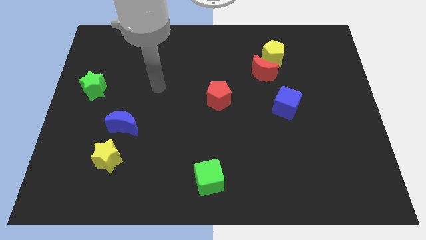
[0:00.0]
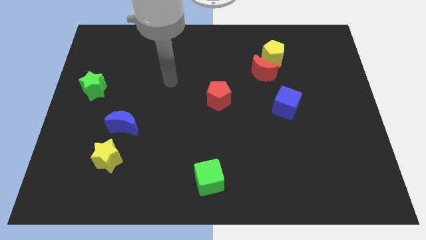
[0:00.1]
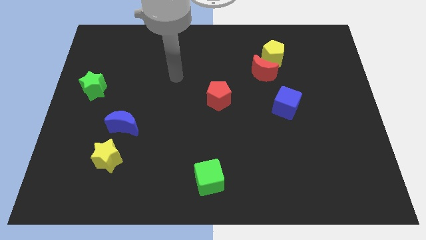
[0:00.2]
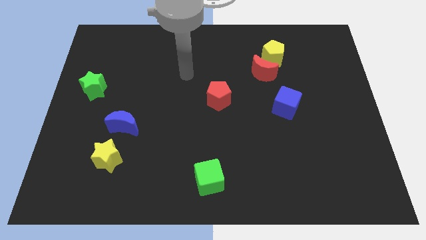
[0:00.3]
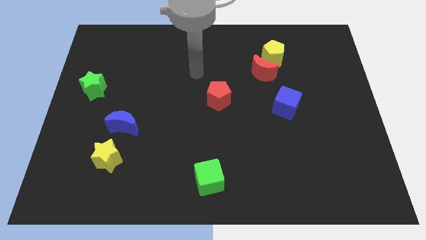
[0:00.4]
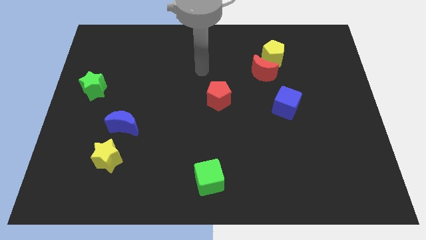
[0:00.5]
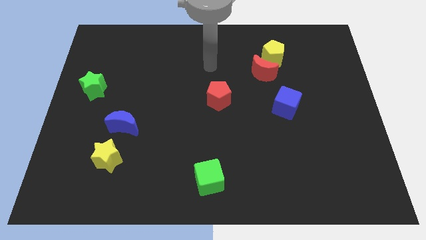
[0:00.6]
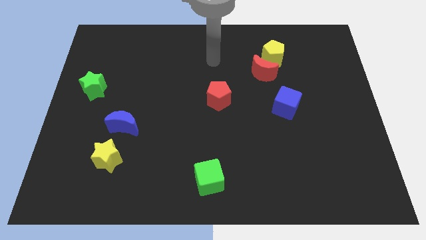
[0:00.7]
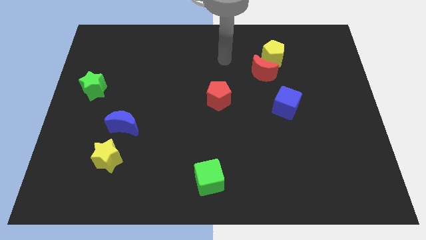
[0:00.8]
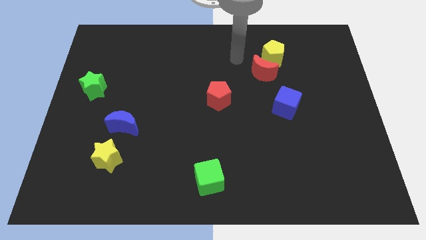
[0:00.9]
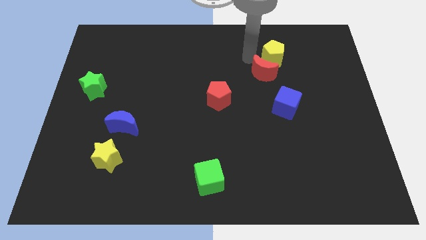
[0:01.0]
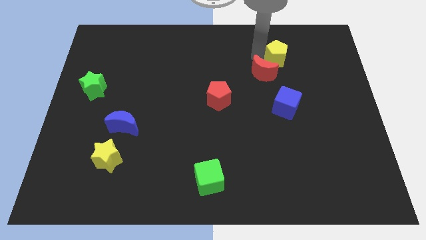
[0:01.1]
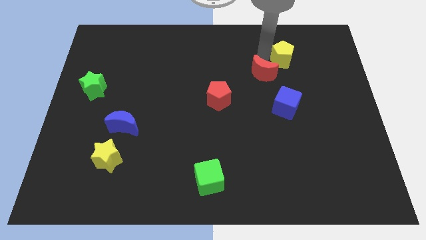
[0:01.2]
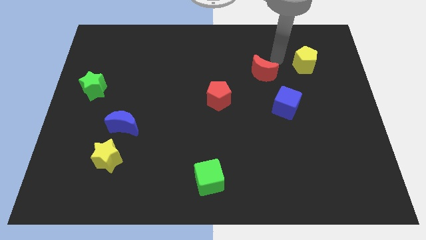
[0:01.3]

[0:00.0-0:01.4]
move the red moon away from the yellow pentagon

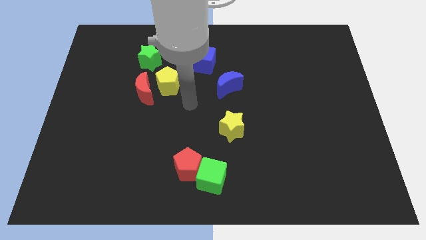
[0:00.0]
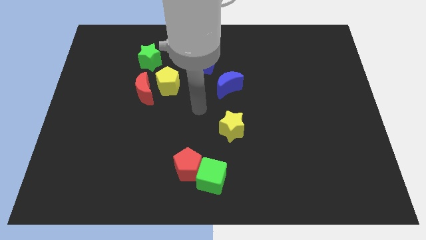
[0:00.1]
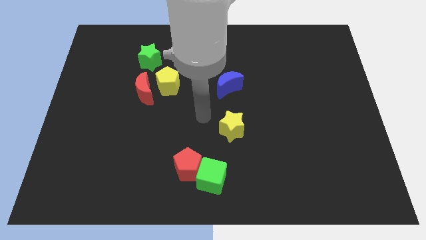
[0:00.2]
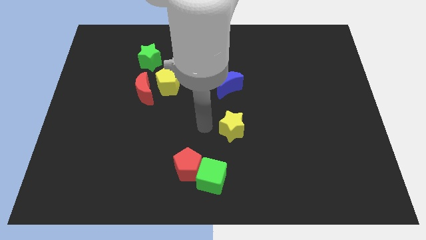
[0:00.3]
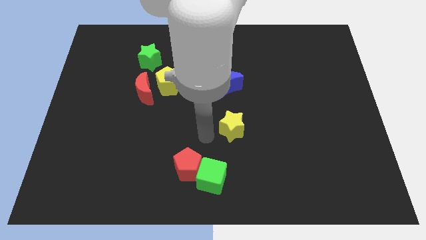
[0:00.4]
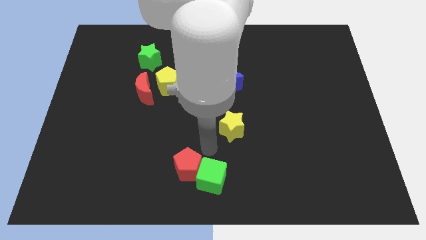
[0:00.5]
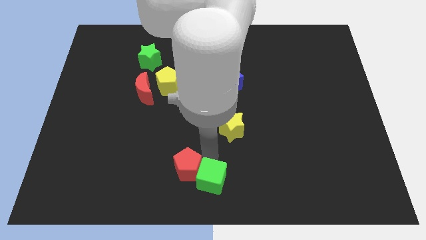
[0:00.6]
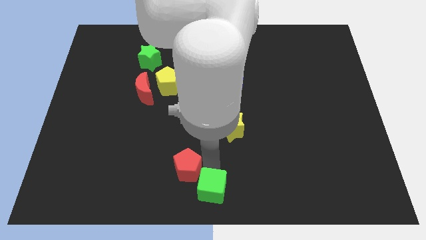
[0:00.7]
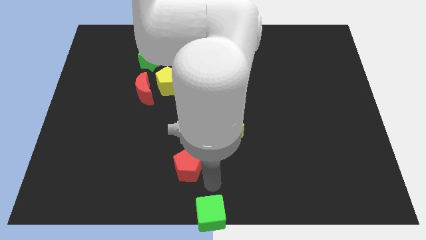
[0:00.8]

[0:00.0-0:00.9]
pull the red pentagon apart from the green cube

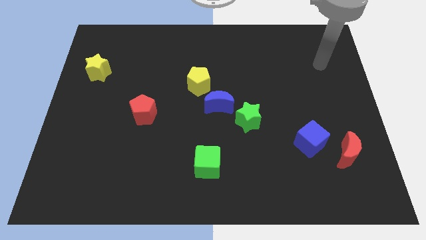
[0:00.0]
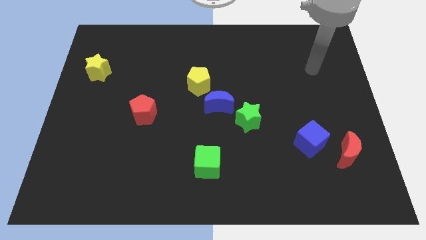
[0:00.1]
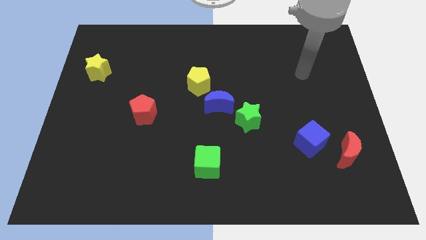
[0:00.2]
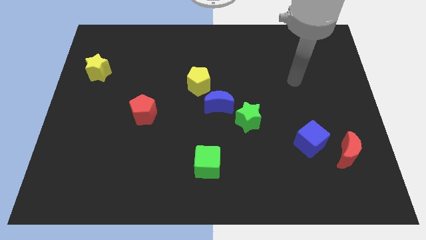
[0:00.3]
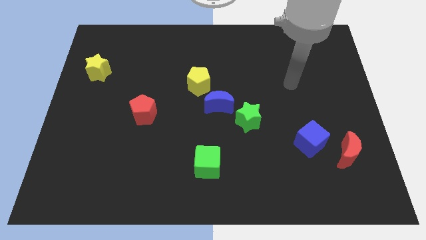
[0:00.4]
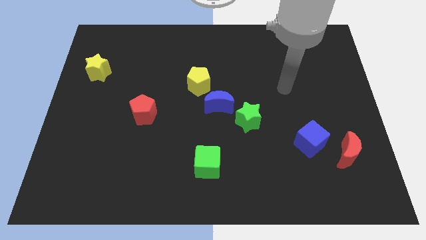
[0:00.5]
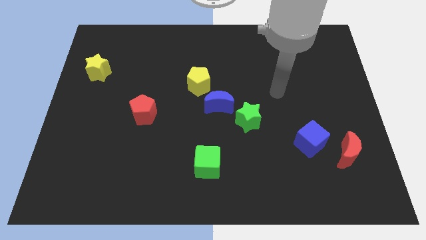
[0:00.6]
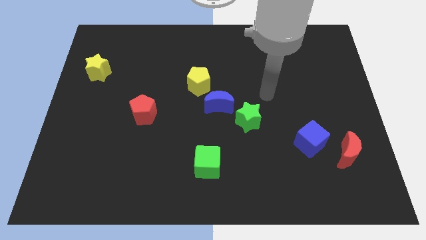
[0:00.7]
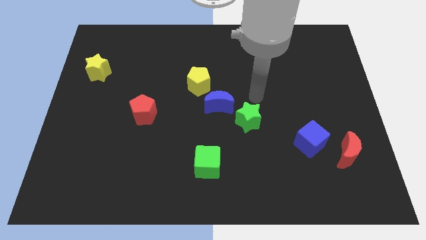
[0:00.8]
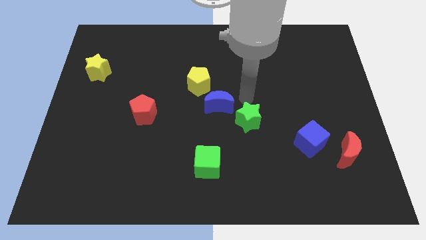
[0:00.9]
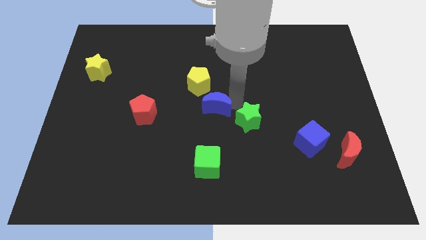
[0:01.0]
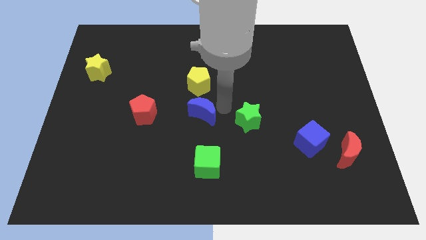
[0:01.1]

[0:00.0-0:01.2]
move the green star away from the blue moon

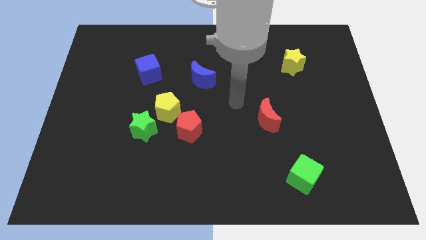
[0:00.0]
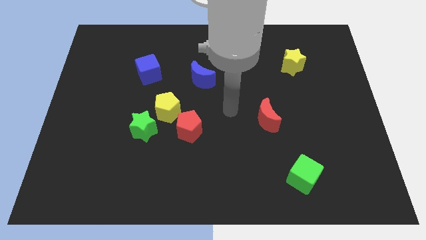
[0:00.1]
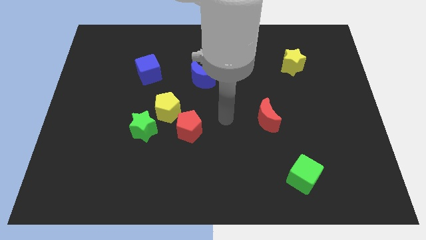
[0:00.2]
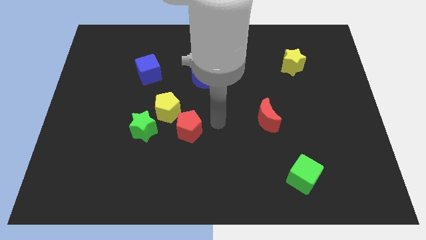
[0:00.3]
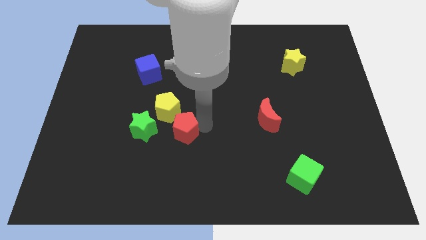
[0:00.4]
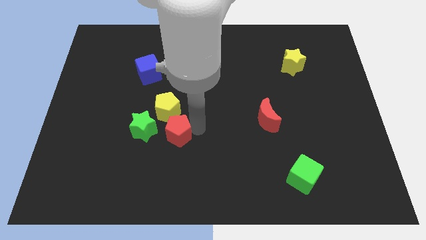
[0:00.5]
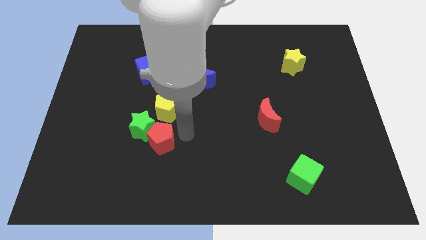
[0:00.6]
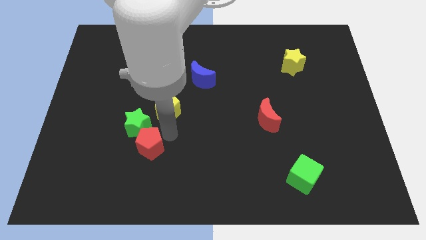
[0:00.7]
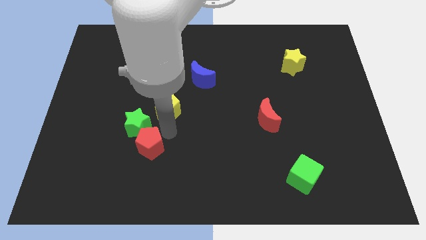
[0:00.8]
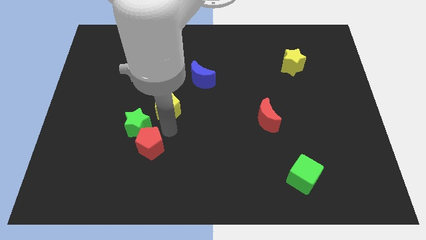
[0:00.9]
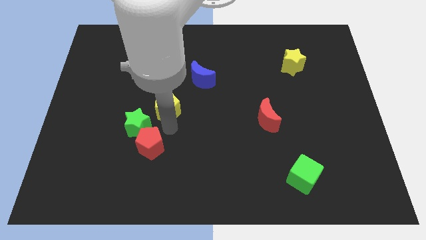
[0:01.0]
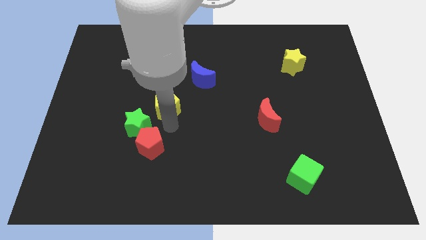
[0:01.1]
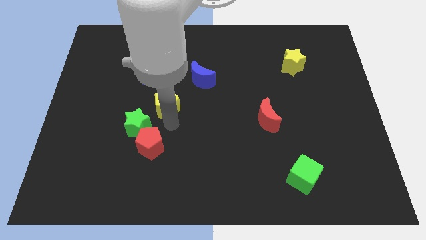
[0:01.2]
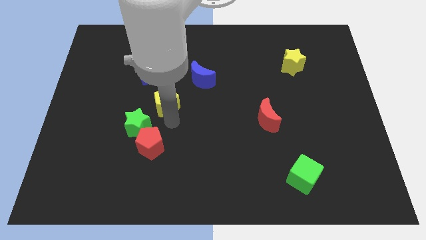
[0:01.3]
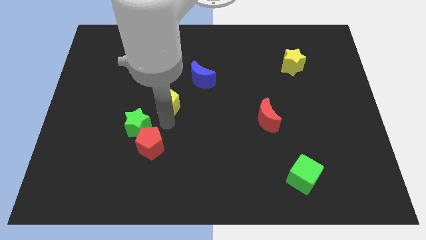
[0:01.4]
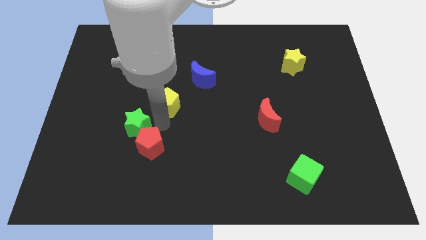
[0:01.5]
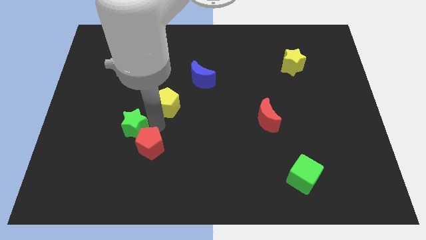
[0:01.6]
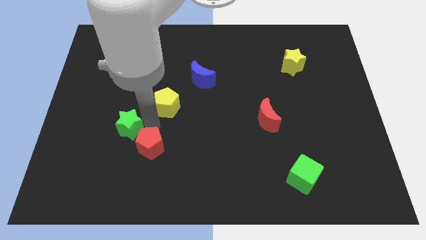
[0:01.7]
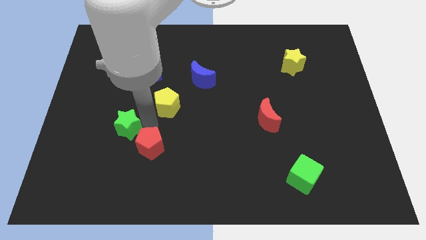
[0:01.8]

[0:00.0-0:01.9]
pull the yellow pentagon apart from the green star and red pentagon

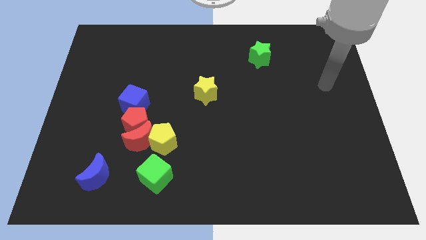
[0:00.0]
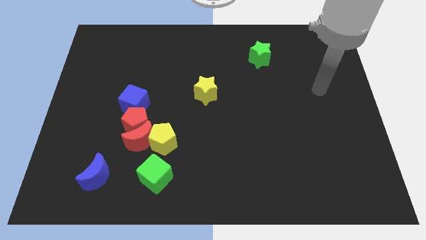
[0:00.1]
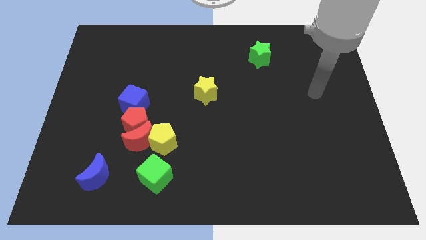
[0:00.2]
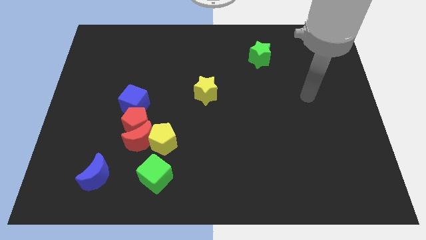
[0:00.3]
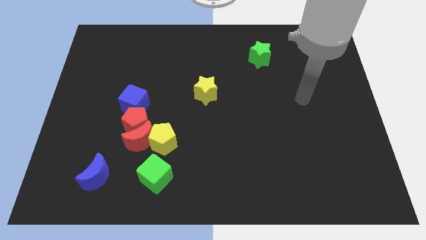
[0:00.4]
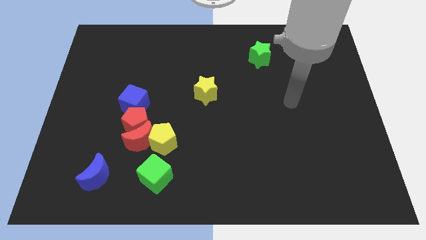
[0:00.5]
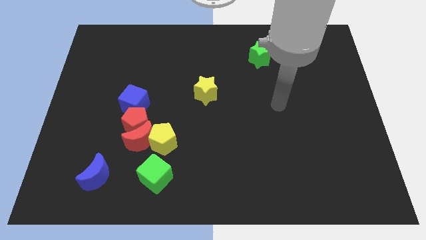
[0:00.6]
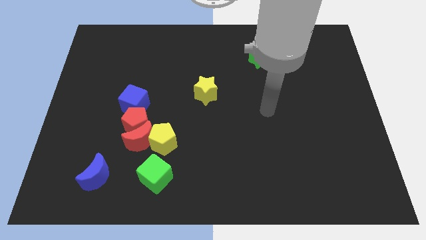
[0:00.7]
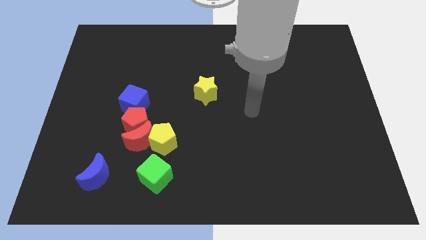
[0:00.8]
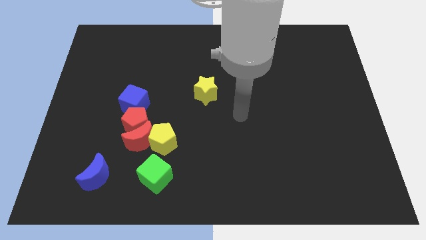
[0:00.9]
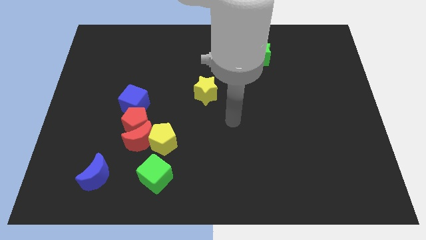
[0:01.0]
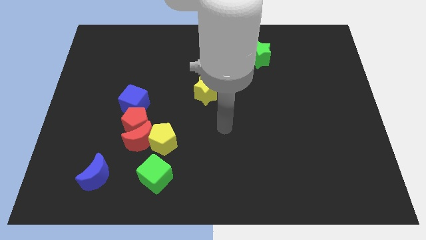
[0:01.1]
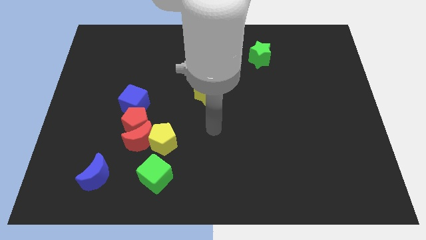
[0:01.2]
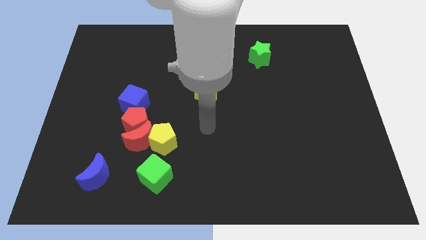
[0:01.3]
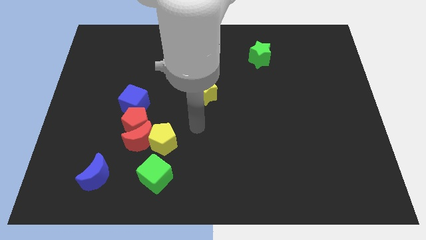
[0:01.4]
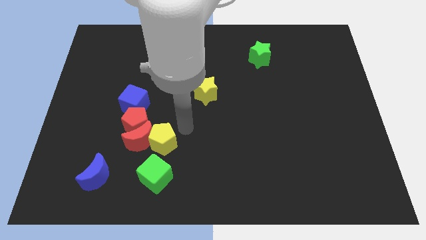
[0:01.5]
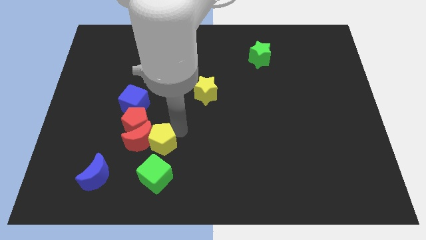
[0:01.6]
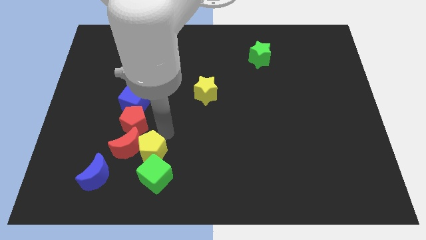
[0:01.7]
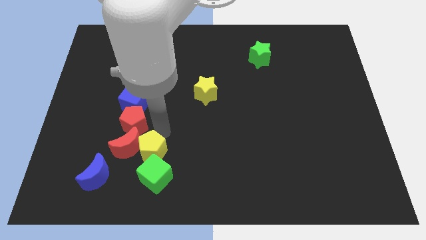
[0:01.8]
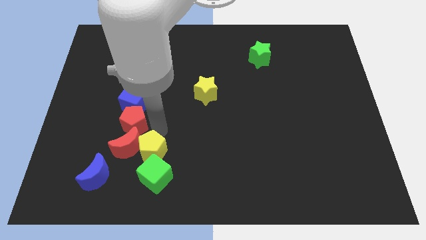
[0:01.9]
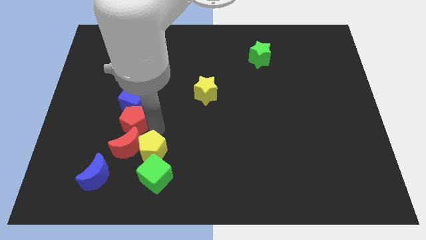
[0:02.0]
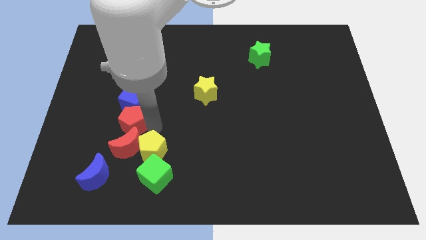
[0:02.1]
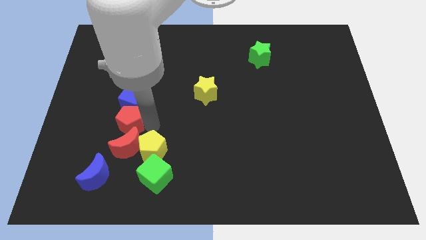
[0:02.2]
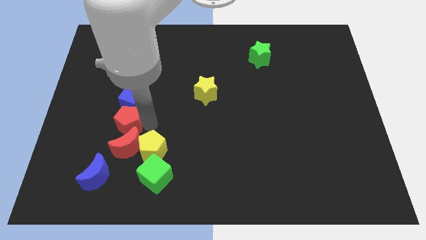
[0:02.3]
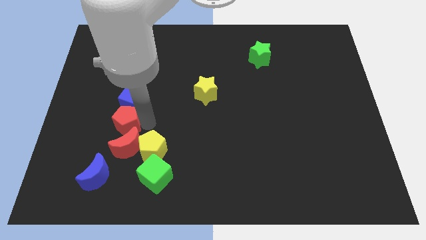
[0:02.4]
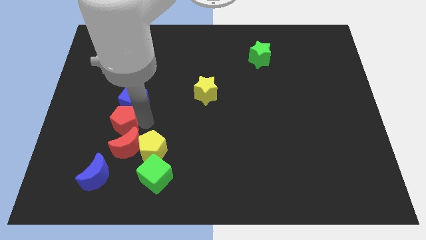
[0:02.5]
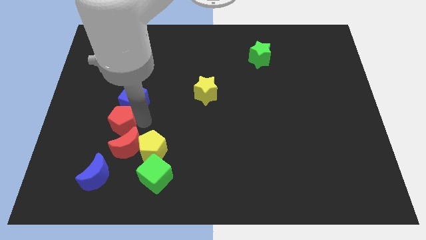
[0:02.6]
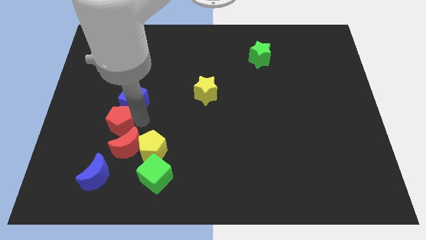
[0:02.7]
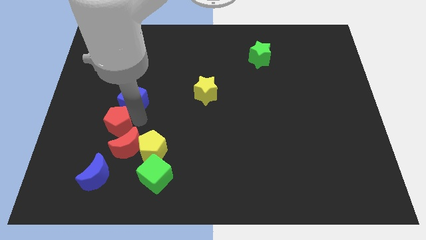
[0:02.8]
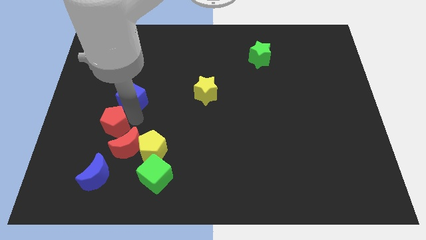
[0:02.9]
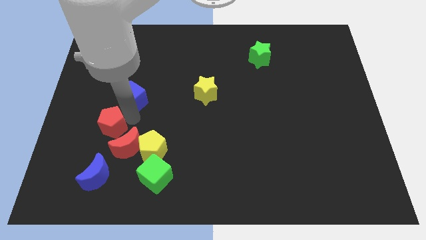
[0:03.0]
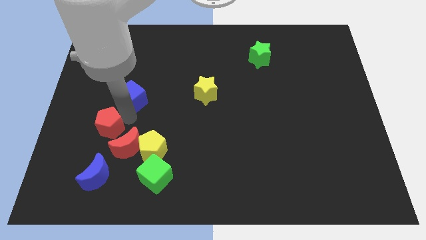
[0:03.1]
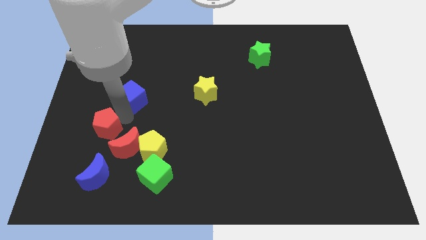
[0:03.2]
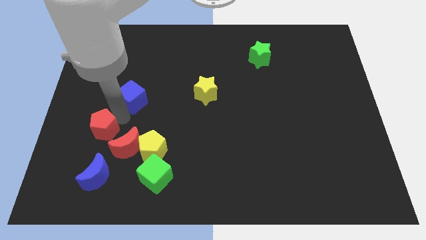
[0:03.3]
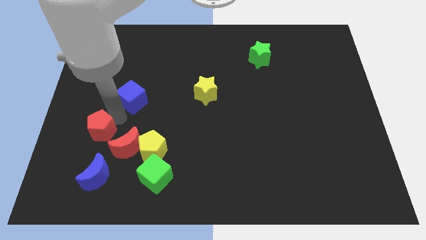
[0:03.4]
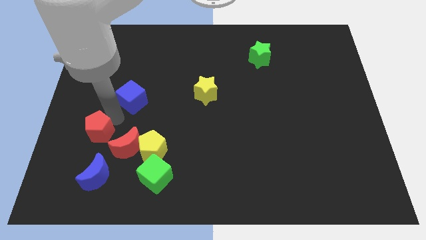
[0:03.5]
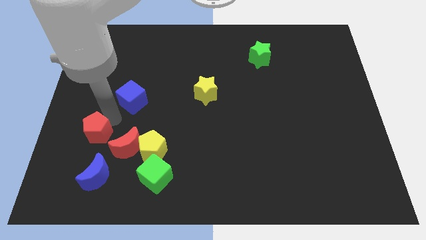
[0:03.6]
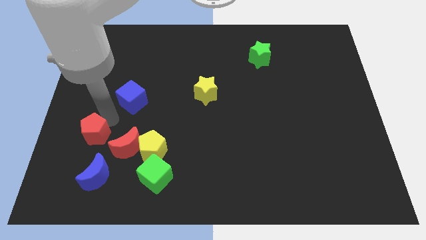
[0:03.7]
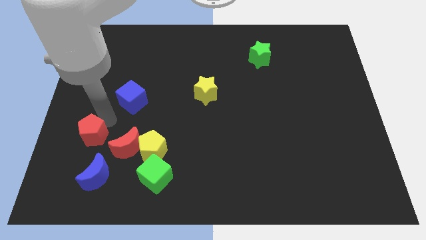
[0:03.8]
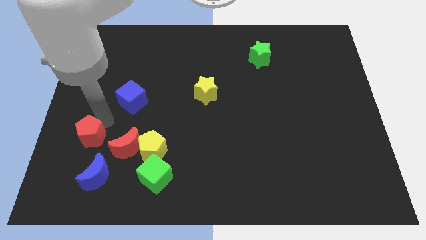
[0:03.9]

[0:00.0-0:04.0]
move the red pentagon away from the clump
